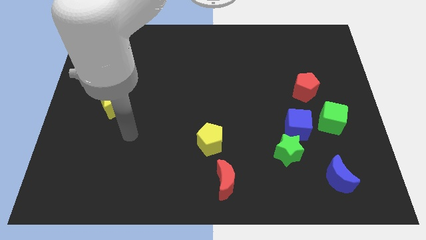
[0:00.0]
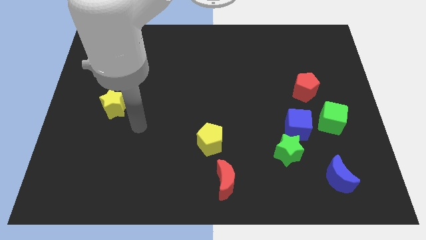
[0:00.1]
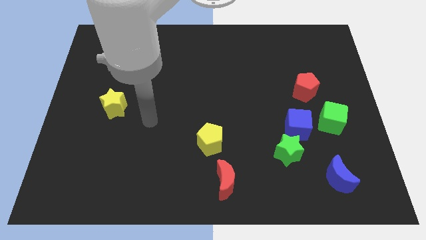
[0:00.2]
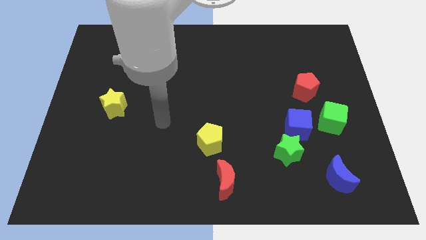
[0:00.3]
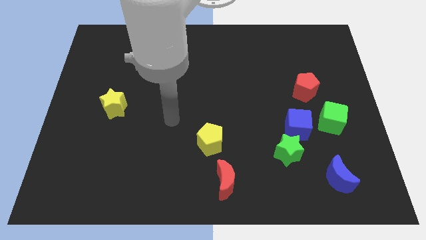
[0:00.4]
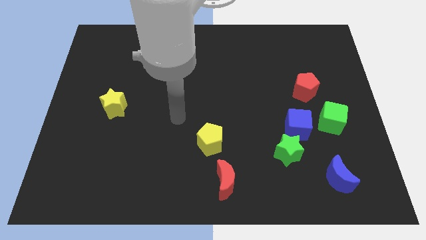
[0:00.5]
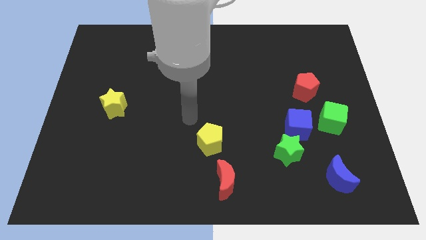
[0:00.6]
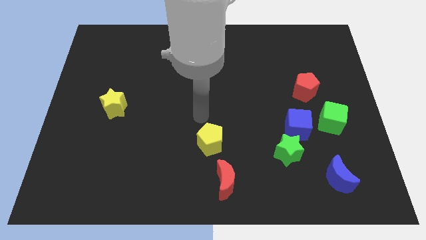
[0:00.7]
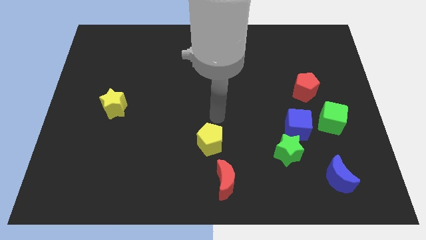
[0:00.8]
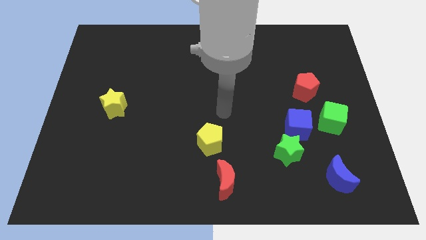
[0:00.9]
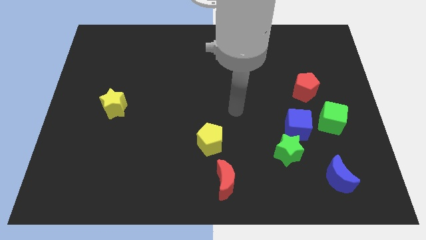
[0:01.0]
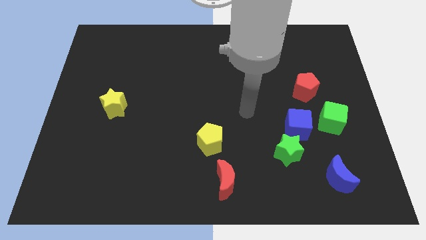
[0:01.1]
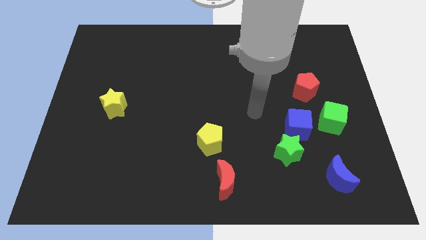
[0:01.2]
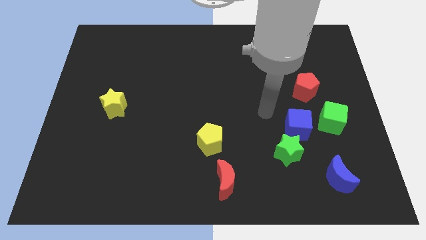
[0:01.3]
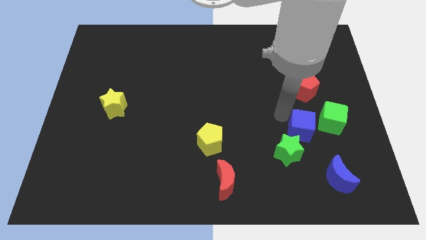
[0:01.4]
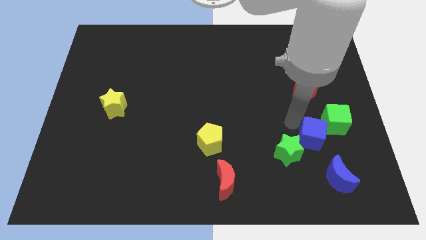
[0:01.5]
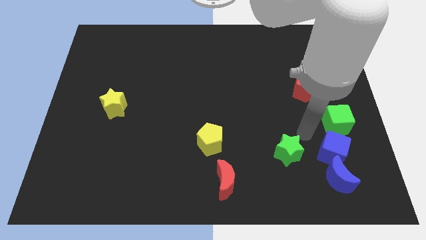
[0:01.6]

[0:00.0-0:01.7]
pull the green star apart from the blue cube

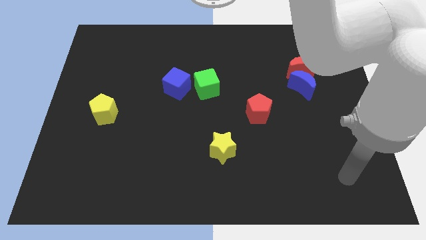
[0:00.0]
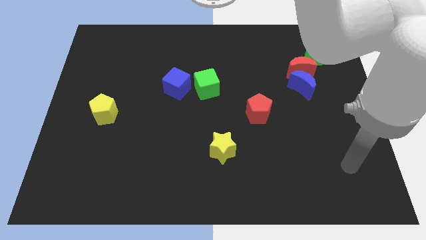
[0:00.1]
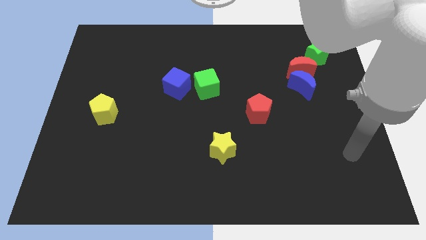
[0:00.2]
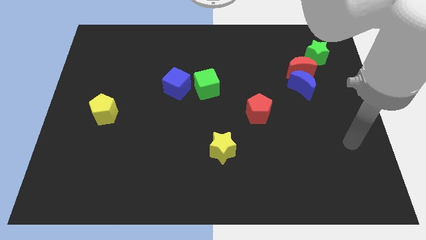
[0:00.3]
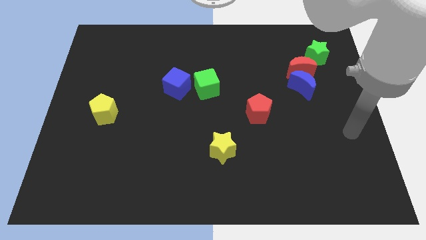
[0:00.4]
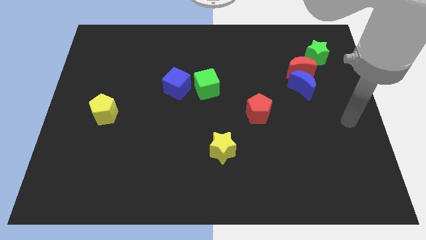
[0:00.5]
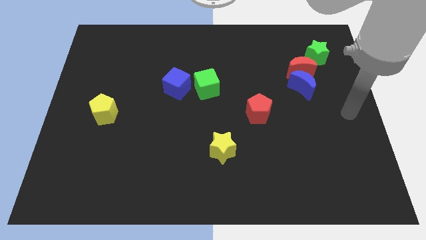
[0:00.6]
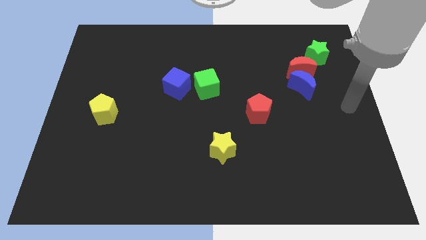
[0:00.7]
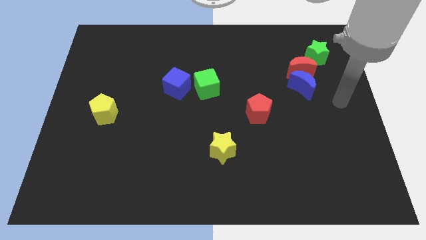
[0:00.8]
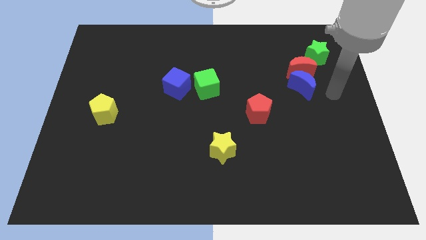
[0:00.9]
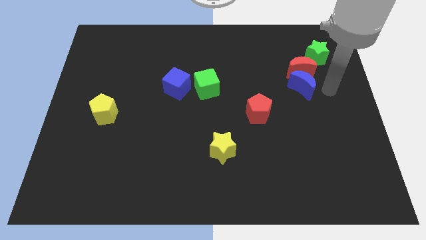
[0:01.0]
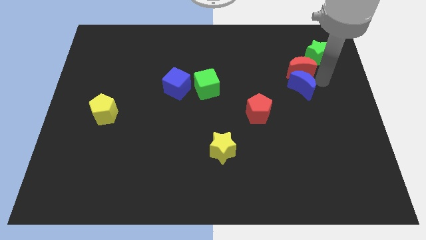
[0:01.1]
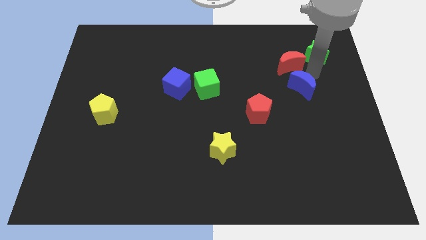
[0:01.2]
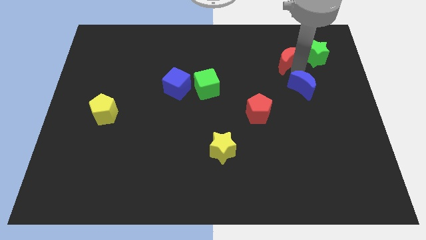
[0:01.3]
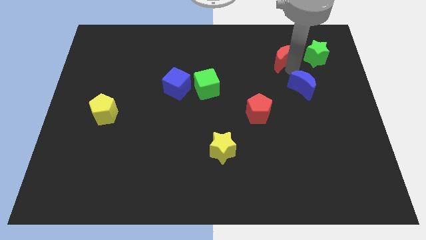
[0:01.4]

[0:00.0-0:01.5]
pull the blue moon apart from the red moon

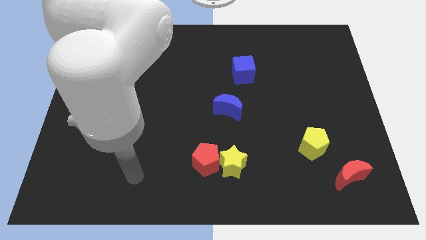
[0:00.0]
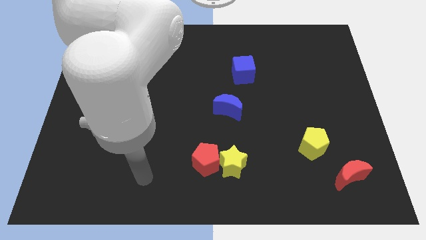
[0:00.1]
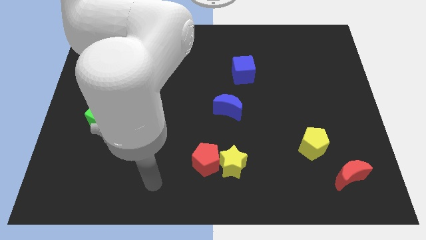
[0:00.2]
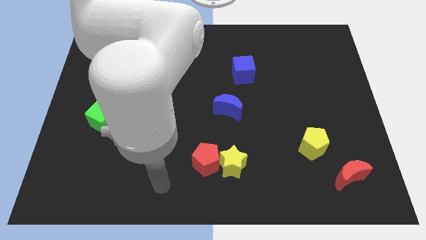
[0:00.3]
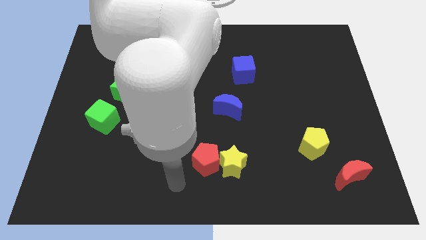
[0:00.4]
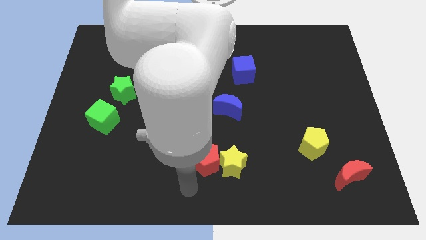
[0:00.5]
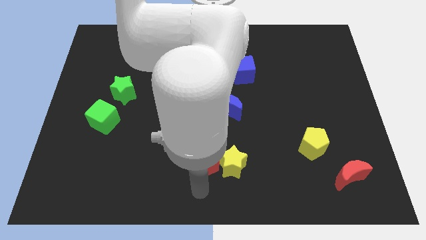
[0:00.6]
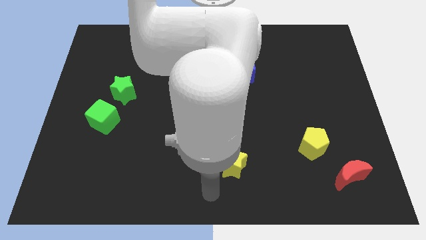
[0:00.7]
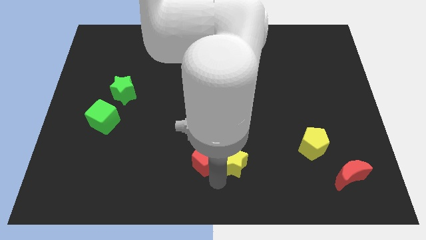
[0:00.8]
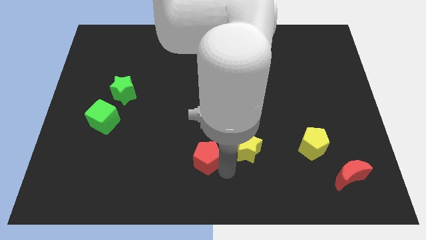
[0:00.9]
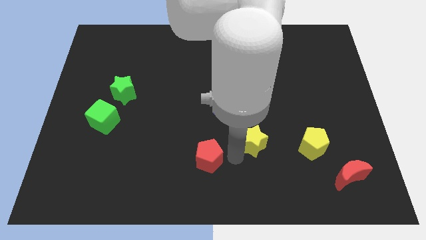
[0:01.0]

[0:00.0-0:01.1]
pull the red pentagon apart from the yellow star

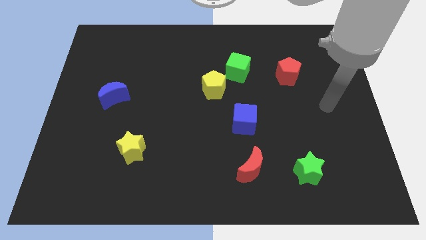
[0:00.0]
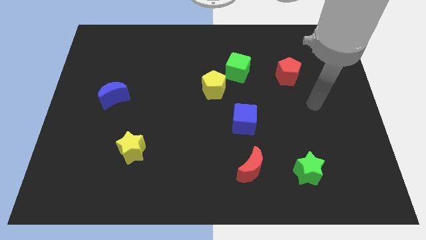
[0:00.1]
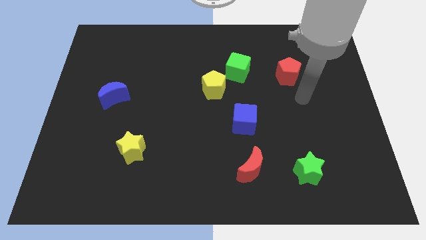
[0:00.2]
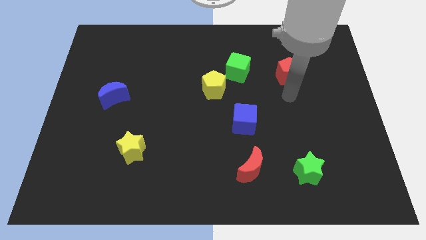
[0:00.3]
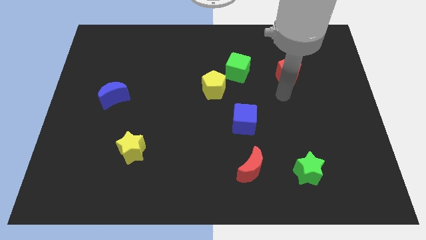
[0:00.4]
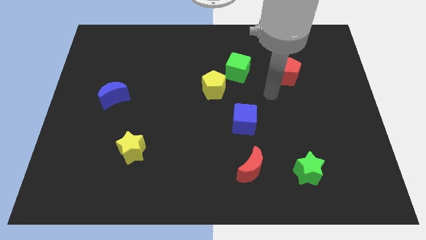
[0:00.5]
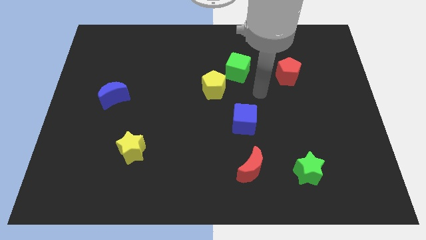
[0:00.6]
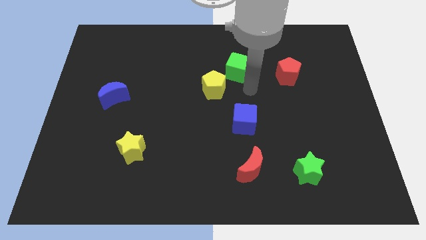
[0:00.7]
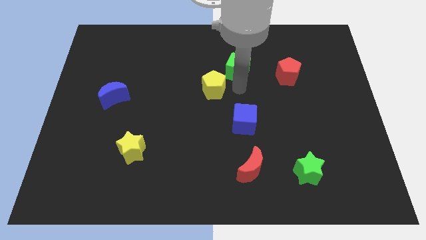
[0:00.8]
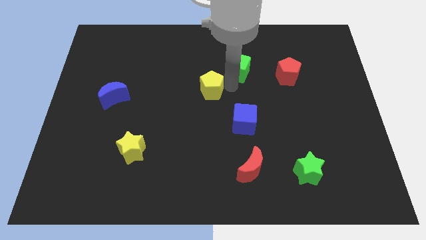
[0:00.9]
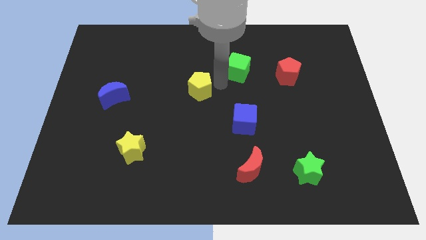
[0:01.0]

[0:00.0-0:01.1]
pull the green cube apart from the yellow pentagon

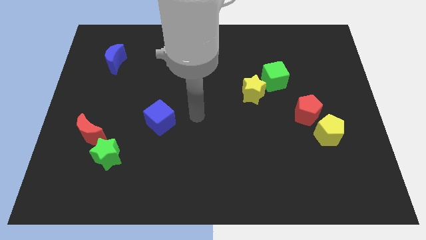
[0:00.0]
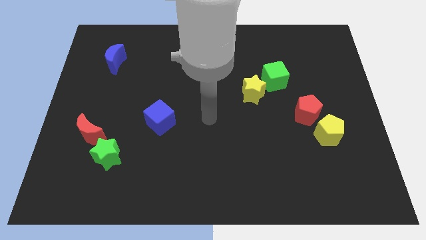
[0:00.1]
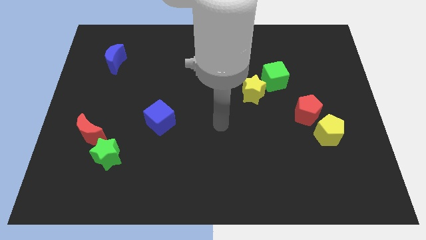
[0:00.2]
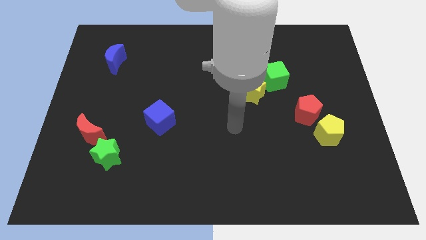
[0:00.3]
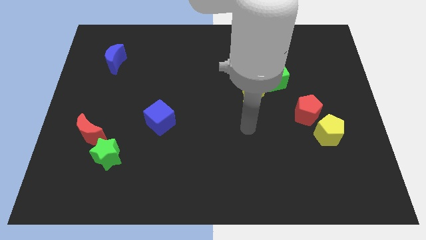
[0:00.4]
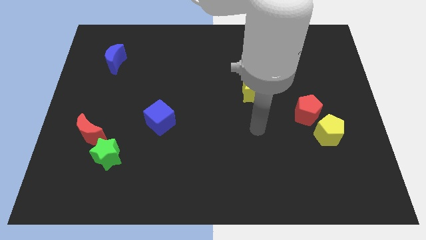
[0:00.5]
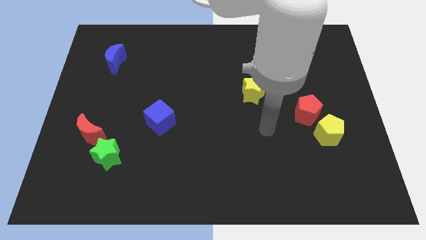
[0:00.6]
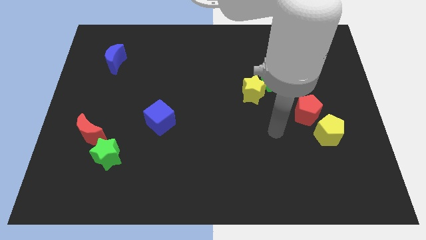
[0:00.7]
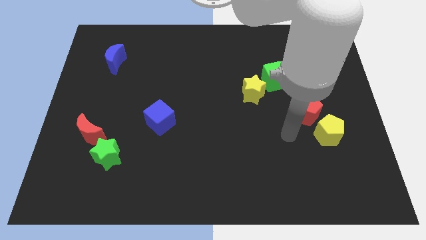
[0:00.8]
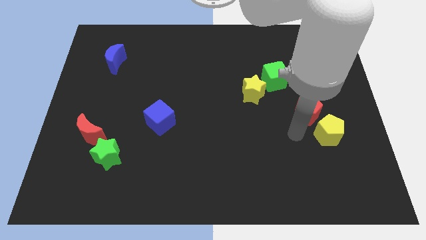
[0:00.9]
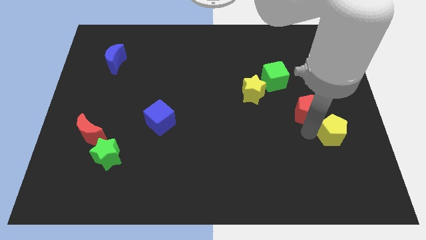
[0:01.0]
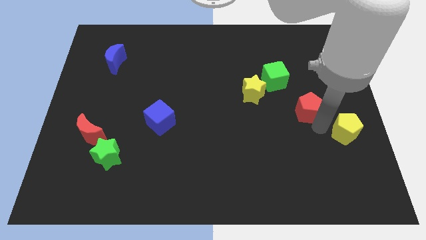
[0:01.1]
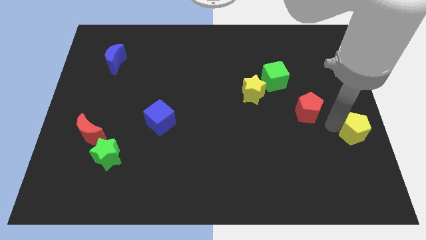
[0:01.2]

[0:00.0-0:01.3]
move the red pentagon away from the yellow pentagon

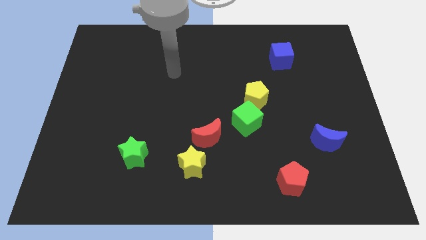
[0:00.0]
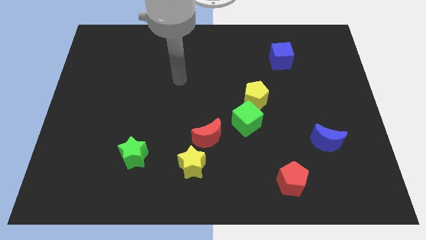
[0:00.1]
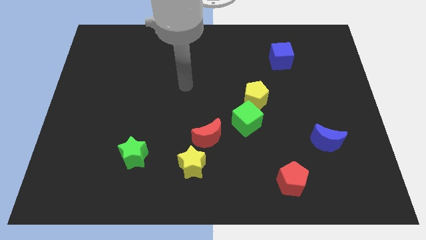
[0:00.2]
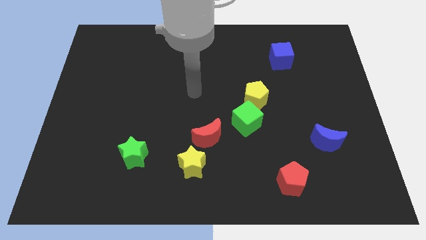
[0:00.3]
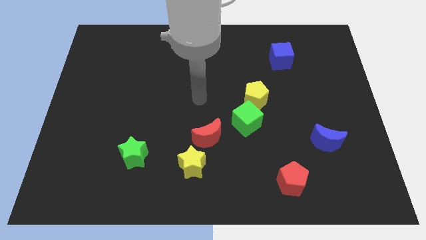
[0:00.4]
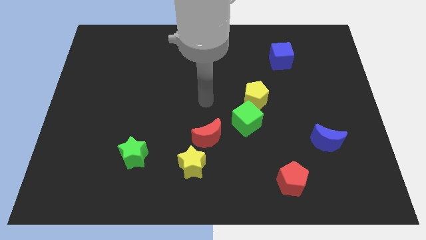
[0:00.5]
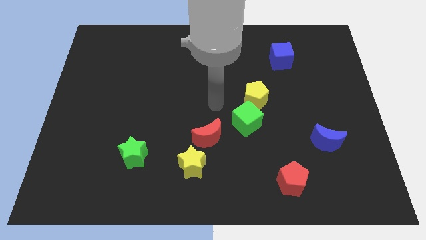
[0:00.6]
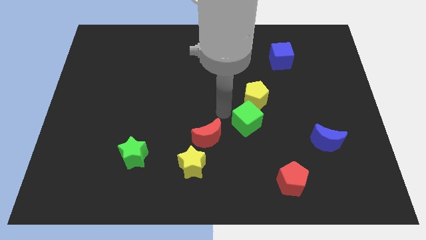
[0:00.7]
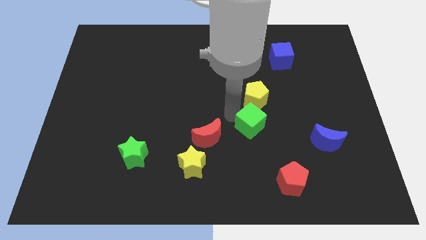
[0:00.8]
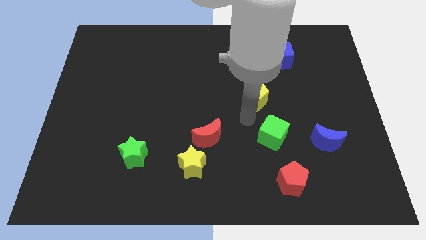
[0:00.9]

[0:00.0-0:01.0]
pull the yellow pentagon apart from the green cube

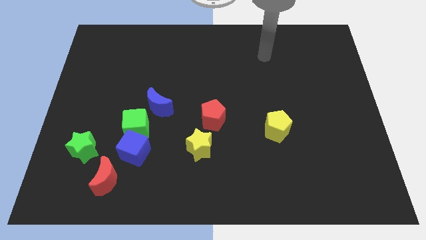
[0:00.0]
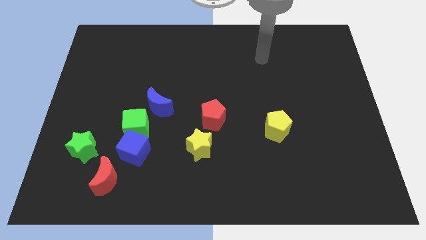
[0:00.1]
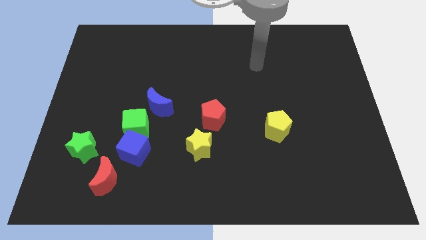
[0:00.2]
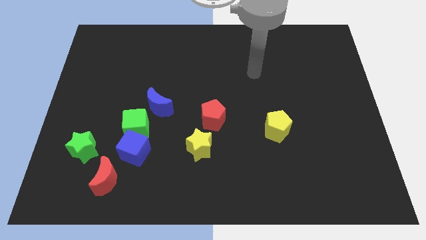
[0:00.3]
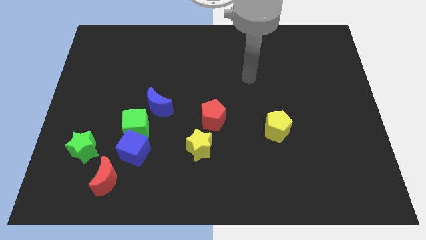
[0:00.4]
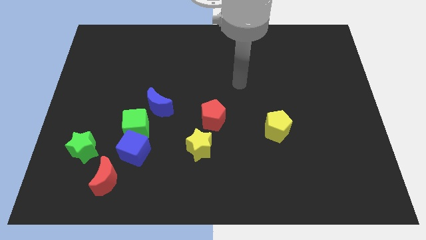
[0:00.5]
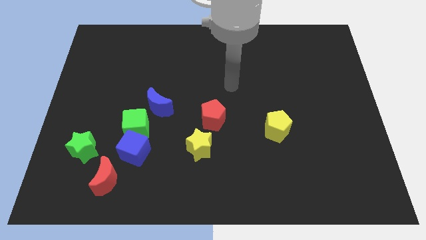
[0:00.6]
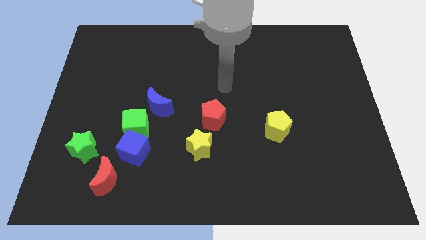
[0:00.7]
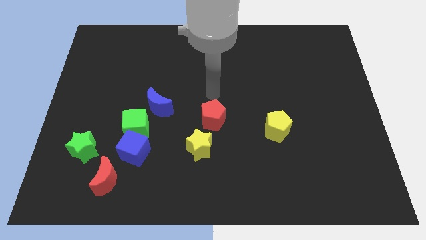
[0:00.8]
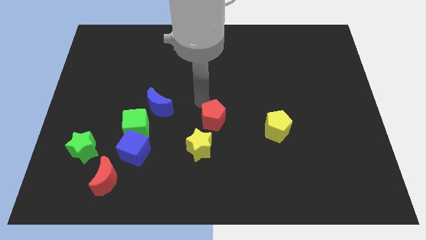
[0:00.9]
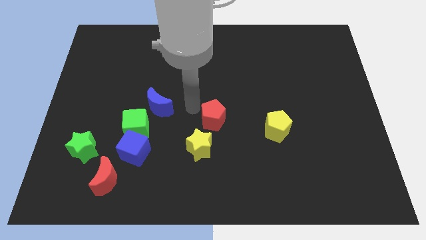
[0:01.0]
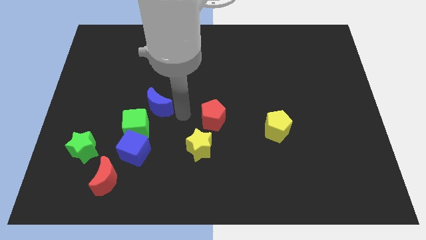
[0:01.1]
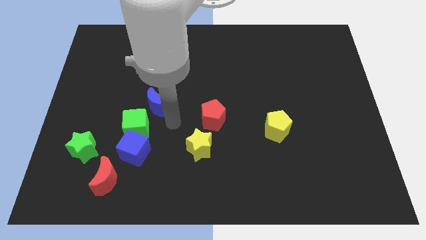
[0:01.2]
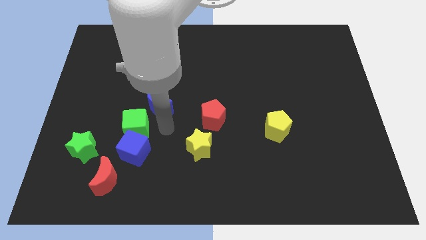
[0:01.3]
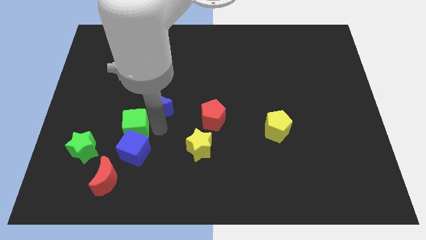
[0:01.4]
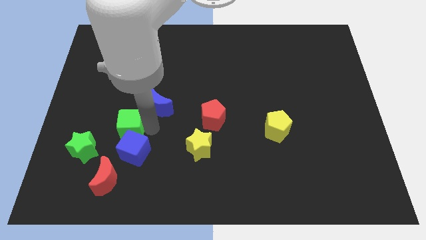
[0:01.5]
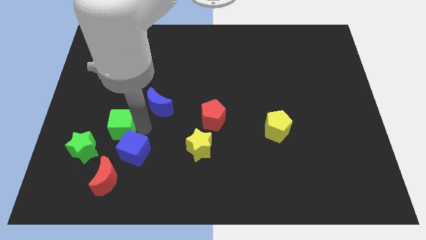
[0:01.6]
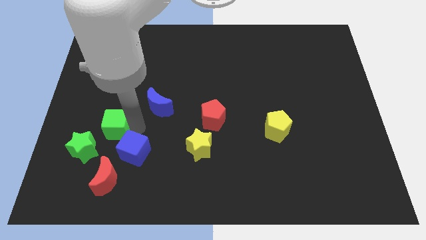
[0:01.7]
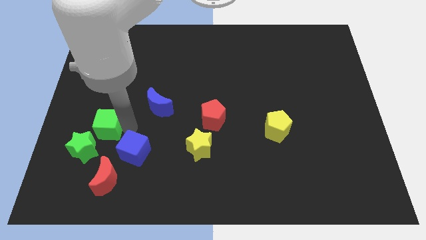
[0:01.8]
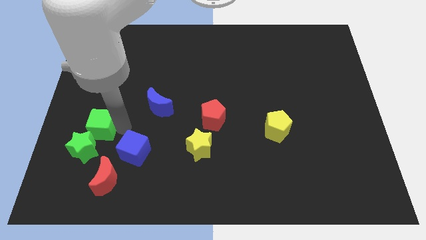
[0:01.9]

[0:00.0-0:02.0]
pull the green cube apart from the blue cube and blue moon
